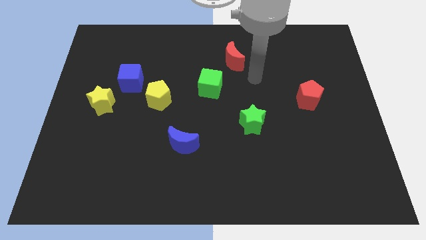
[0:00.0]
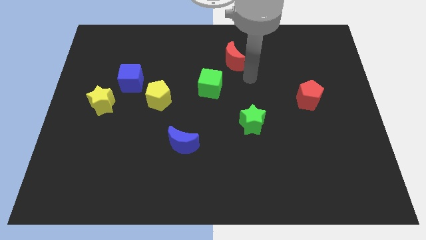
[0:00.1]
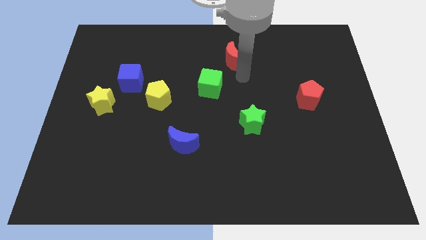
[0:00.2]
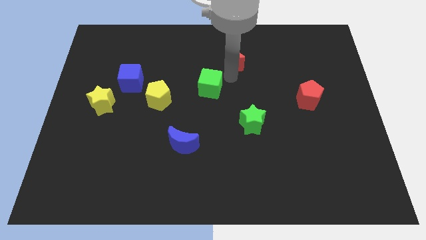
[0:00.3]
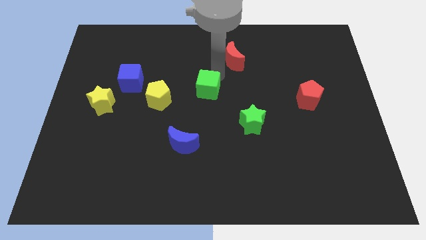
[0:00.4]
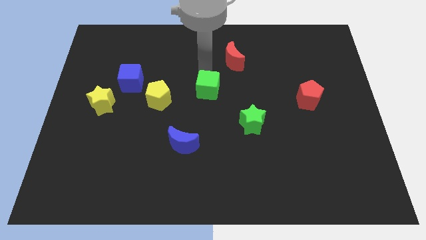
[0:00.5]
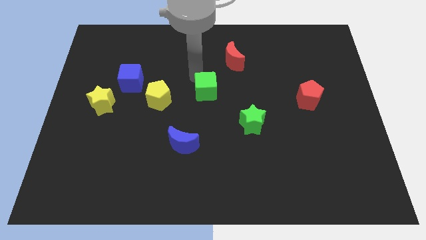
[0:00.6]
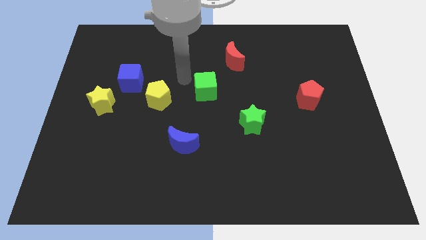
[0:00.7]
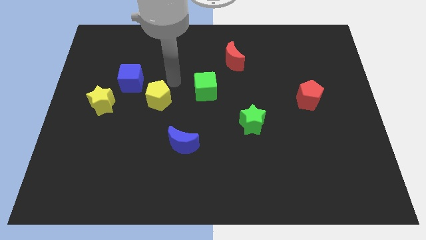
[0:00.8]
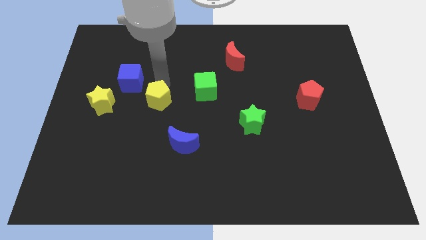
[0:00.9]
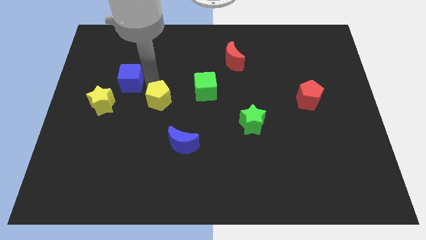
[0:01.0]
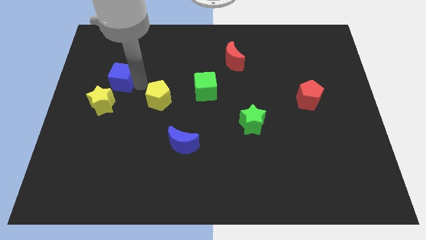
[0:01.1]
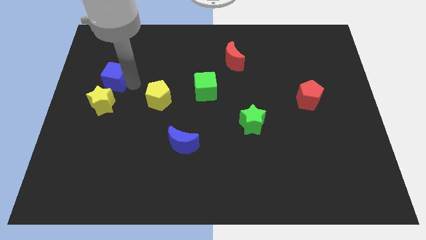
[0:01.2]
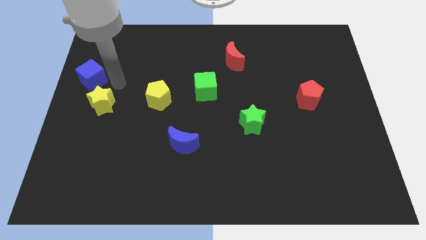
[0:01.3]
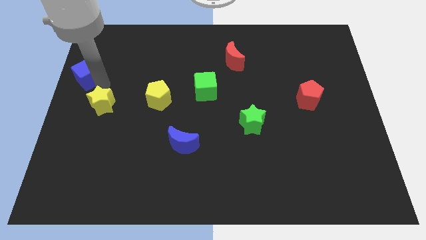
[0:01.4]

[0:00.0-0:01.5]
pull the yellow star apart from the blue cube

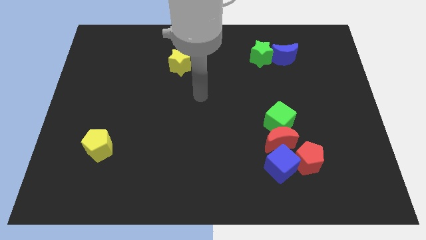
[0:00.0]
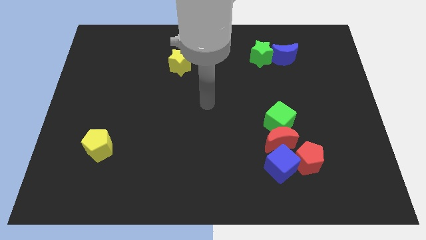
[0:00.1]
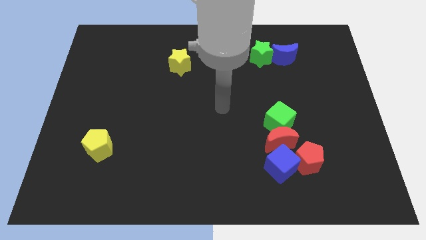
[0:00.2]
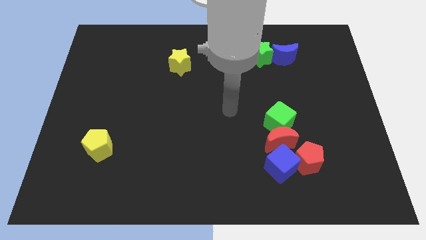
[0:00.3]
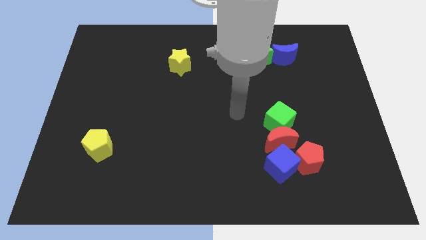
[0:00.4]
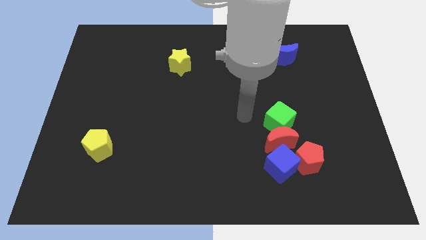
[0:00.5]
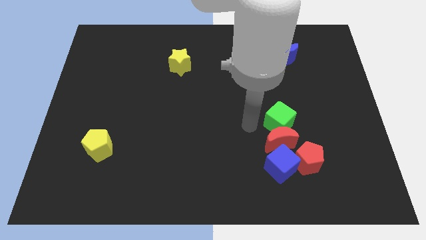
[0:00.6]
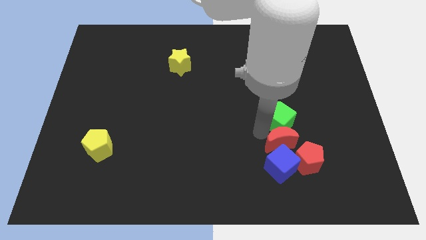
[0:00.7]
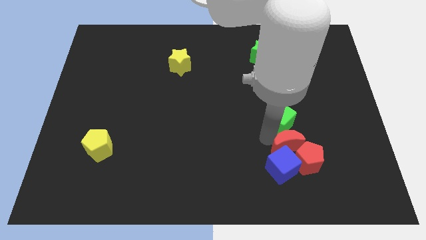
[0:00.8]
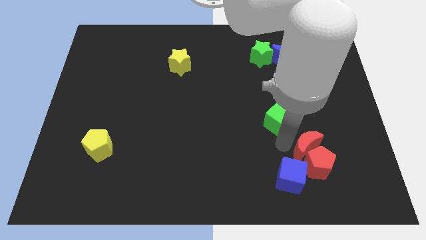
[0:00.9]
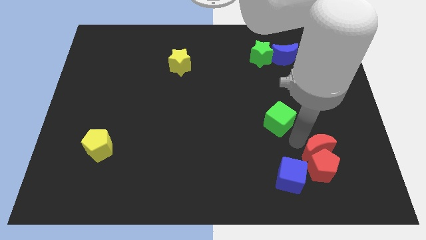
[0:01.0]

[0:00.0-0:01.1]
move the green cube away from the red moon

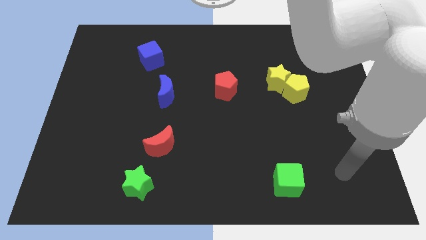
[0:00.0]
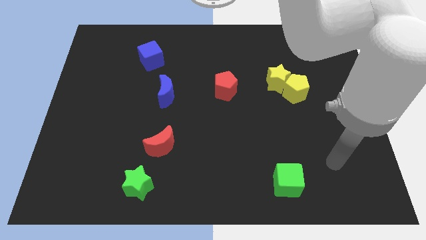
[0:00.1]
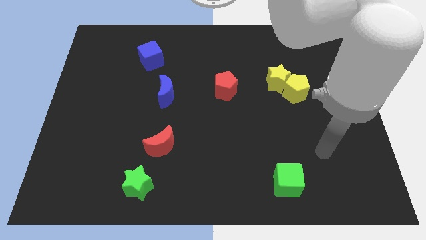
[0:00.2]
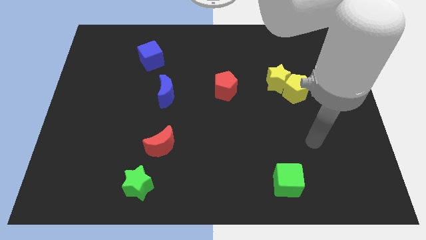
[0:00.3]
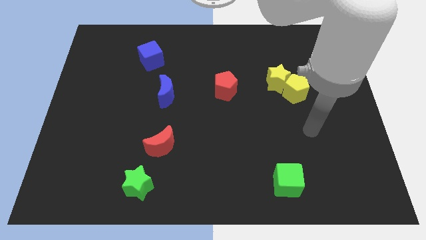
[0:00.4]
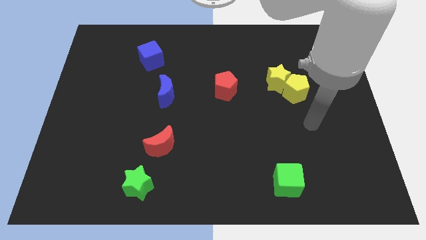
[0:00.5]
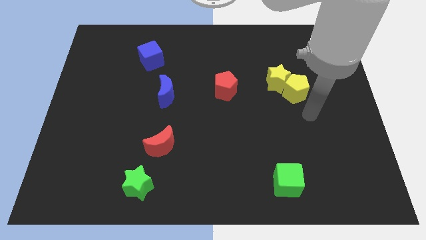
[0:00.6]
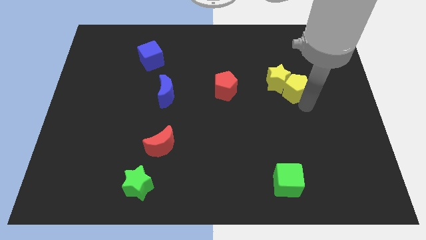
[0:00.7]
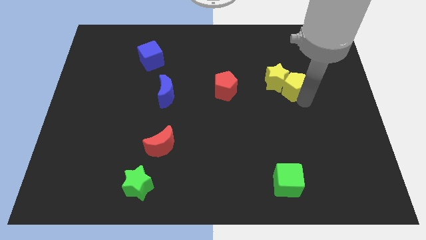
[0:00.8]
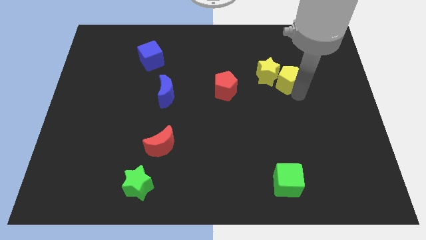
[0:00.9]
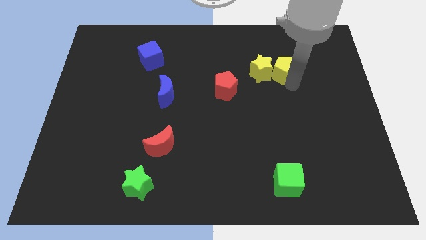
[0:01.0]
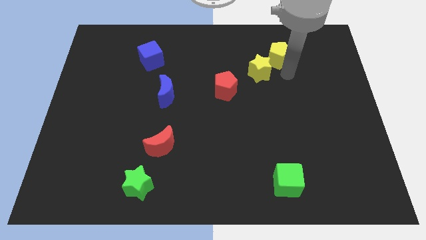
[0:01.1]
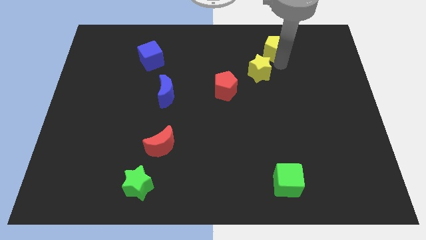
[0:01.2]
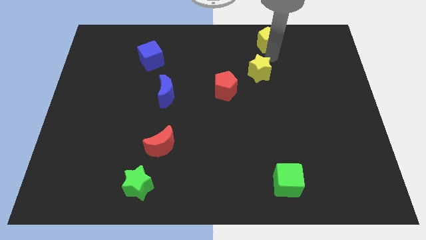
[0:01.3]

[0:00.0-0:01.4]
separate the yellow star from the yellow pentagon

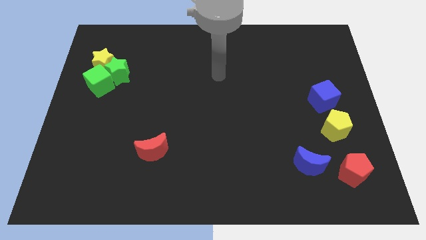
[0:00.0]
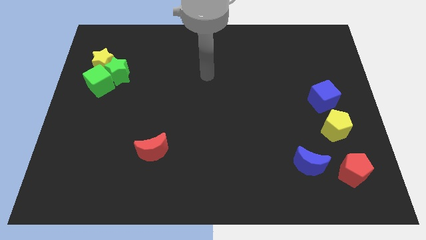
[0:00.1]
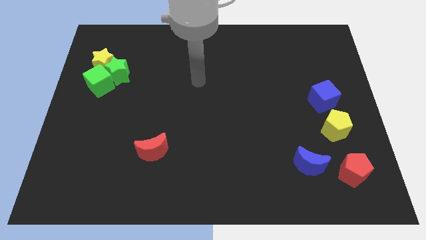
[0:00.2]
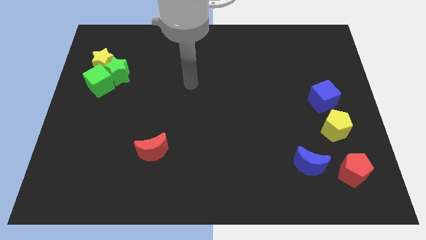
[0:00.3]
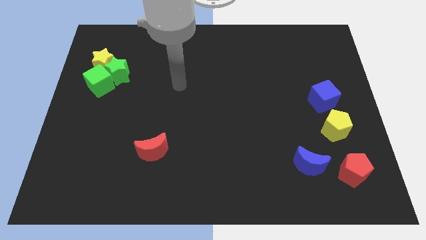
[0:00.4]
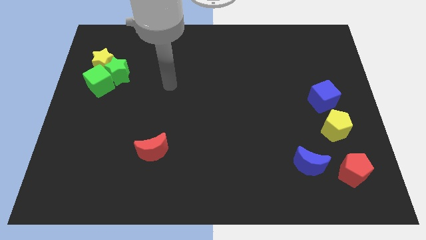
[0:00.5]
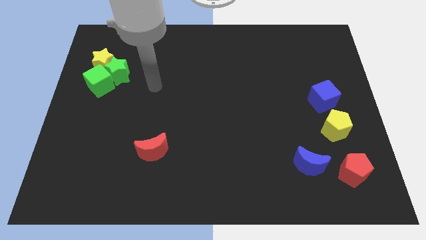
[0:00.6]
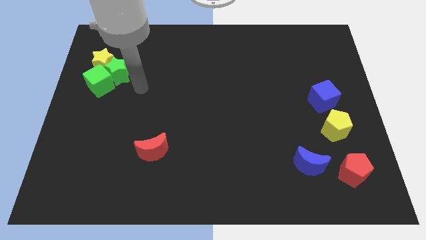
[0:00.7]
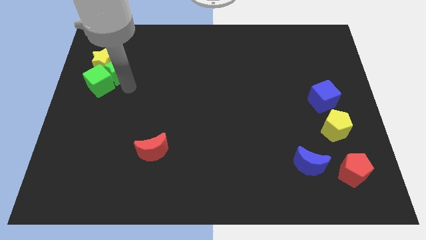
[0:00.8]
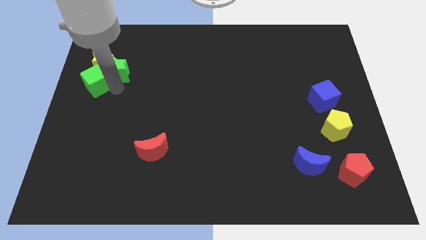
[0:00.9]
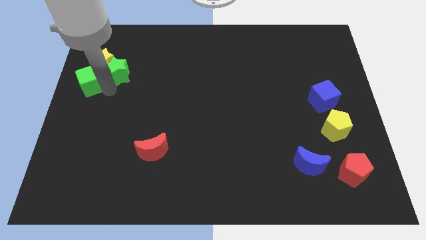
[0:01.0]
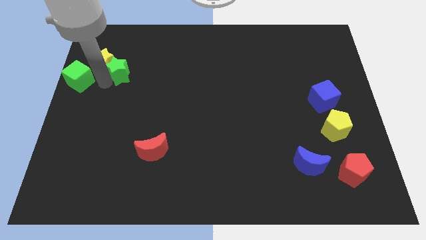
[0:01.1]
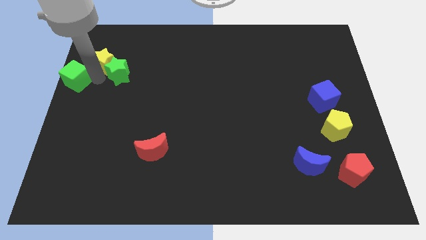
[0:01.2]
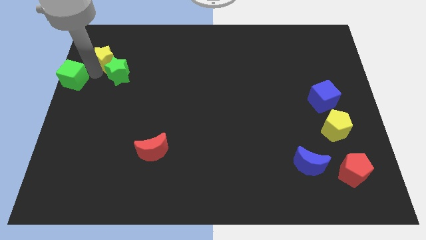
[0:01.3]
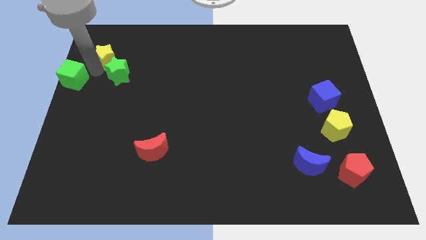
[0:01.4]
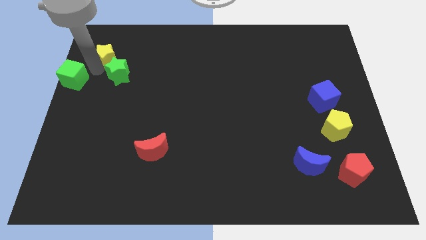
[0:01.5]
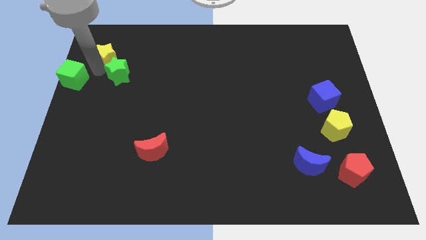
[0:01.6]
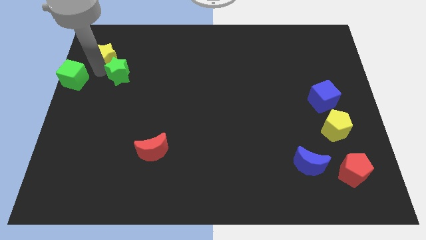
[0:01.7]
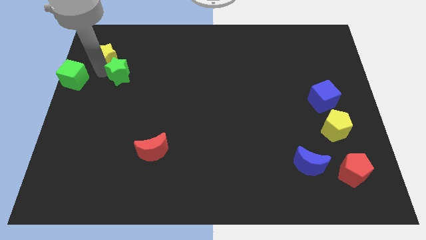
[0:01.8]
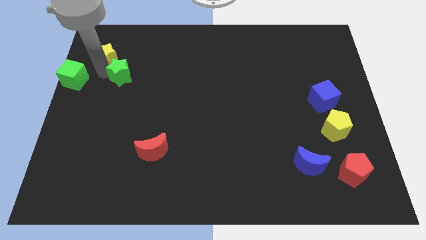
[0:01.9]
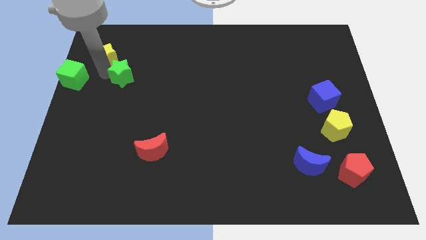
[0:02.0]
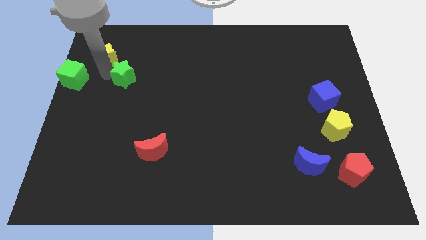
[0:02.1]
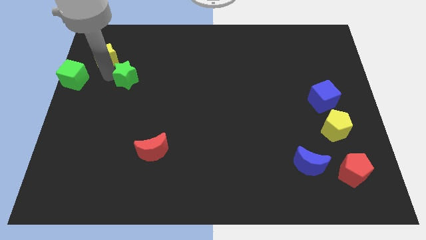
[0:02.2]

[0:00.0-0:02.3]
separate the green star from the yellow star and green cube

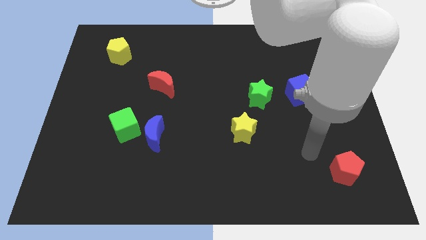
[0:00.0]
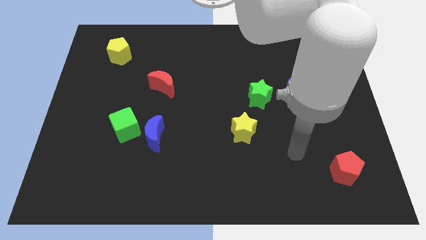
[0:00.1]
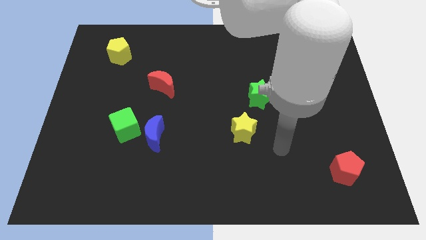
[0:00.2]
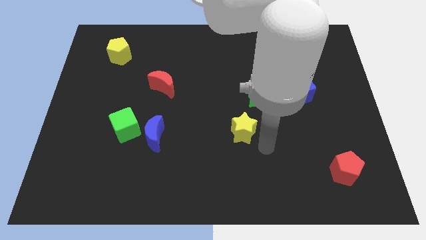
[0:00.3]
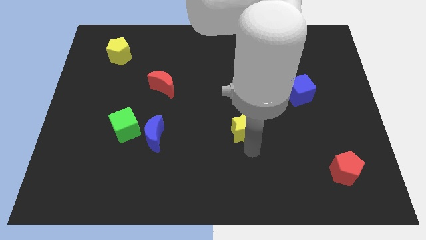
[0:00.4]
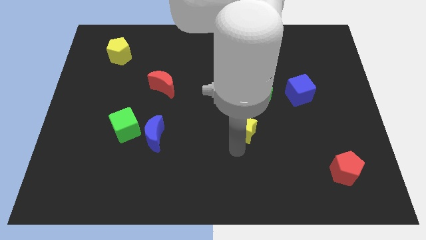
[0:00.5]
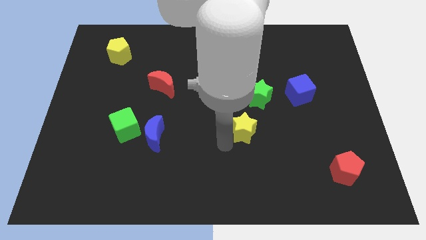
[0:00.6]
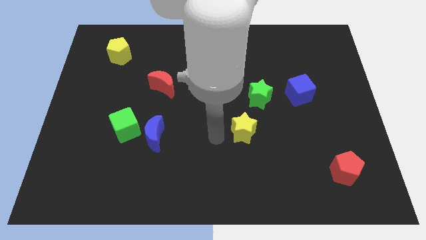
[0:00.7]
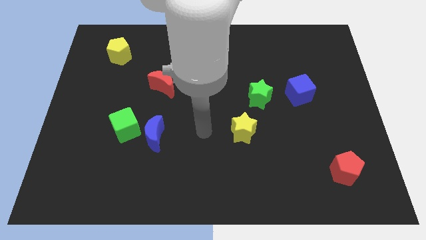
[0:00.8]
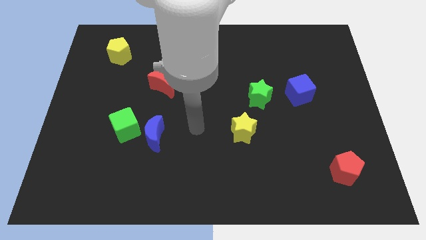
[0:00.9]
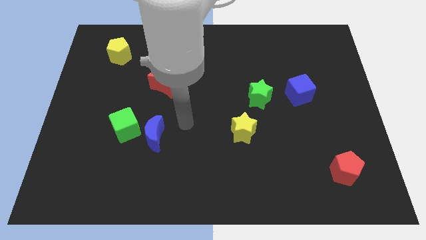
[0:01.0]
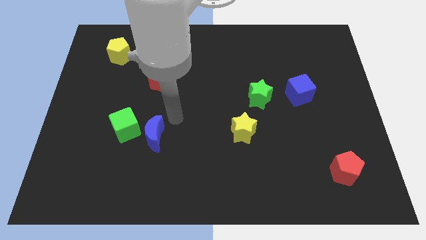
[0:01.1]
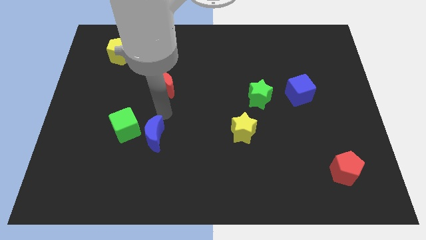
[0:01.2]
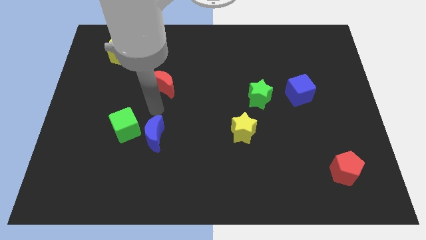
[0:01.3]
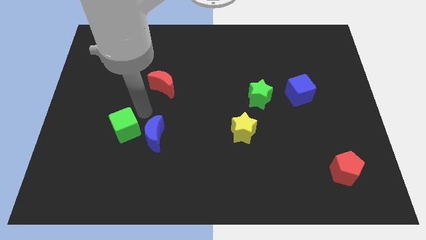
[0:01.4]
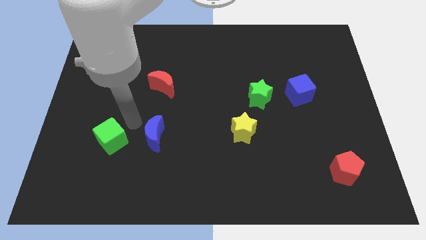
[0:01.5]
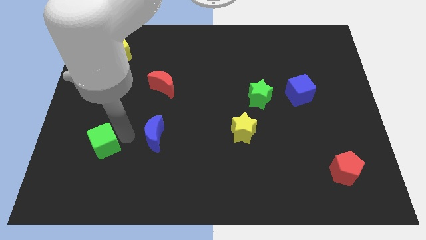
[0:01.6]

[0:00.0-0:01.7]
pull the blue moon apart from the green cube

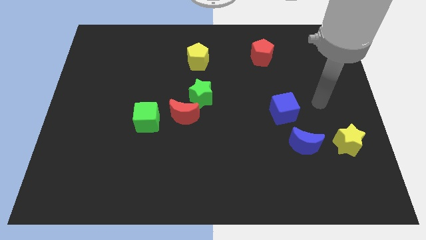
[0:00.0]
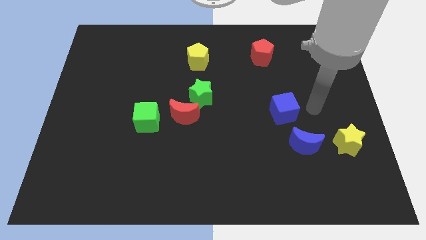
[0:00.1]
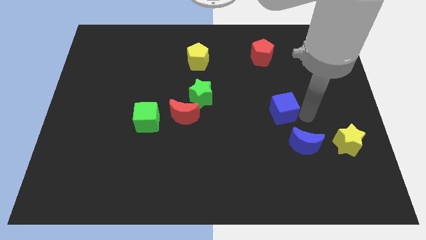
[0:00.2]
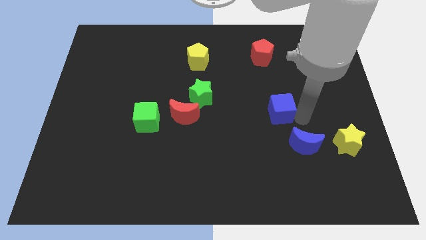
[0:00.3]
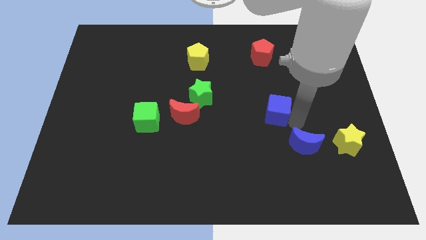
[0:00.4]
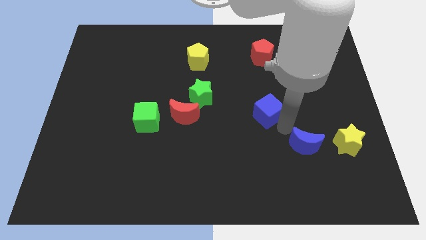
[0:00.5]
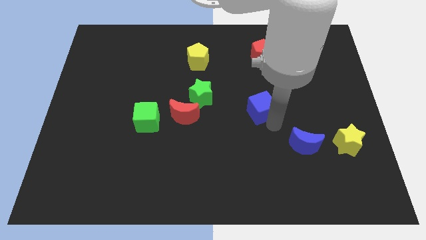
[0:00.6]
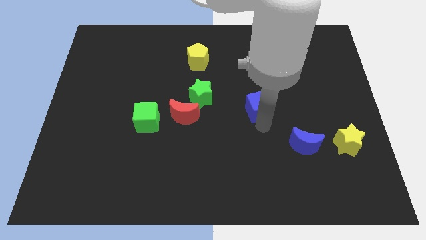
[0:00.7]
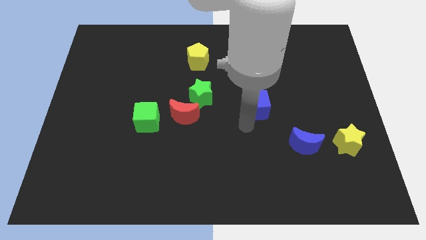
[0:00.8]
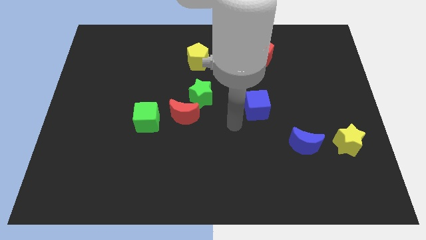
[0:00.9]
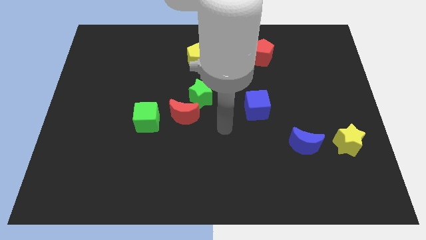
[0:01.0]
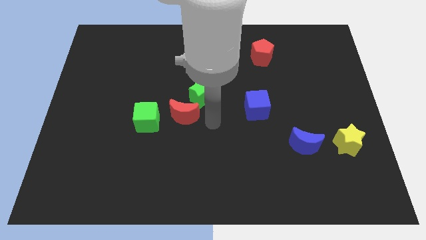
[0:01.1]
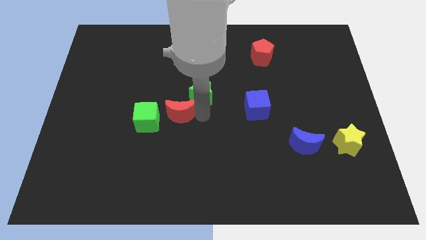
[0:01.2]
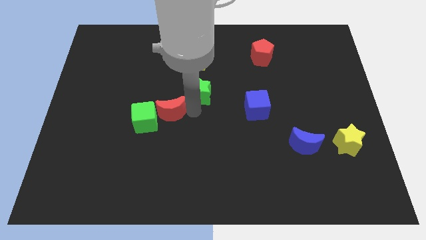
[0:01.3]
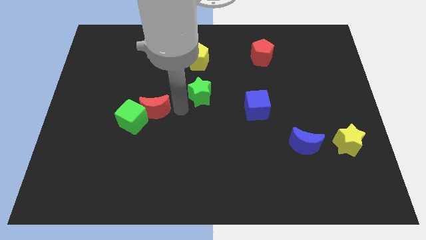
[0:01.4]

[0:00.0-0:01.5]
pull the green star apart from the red moon
